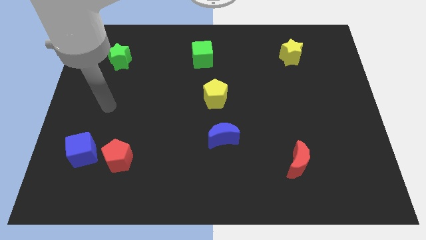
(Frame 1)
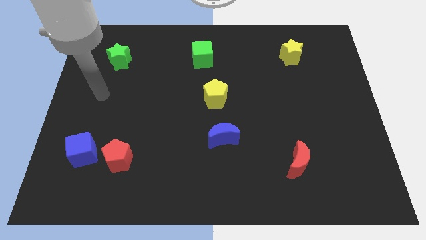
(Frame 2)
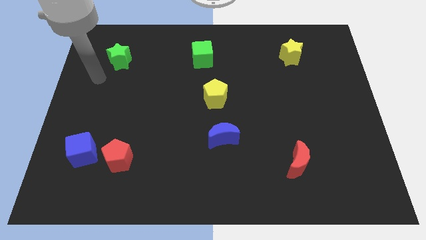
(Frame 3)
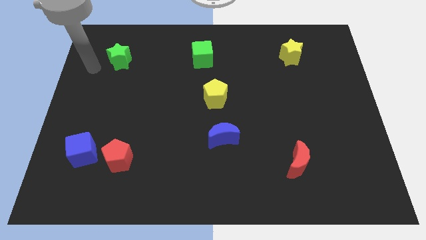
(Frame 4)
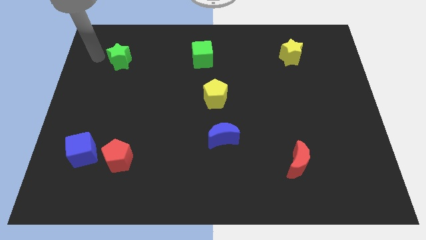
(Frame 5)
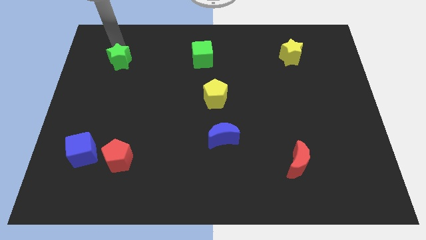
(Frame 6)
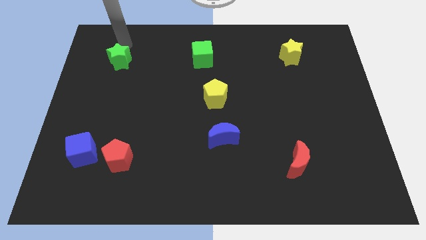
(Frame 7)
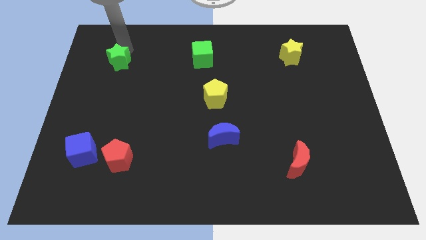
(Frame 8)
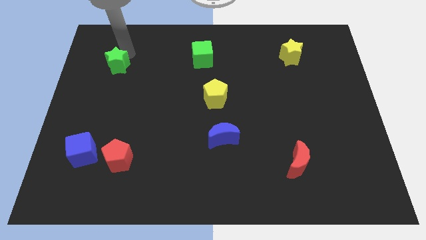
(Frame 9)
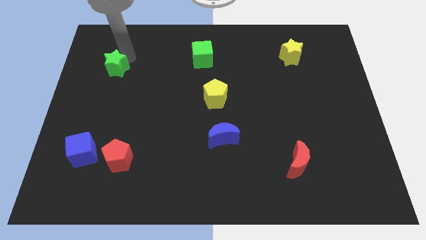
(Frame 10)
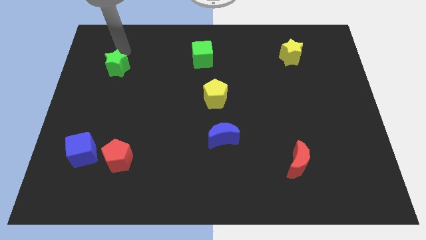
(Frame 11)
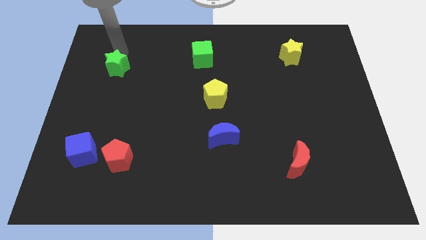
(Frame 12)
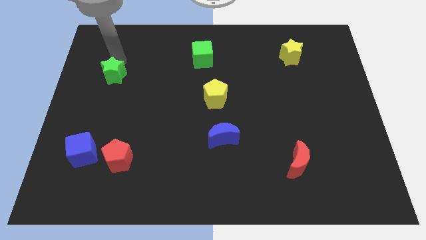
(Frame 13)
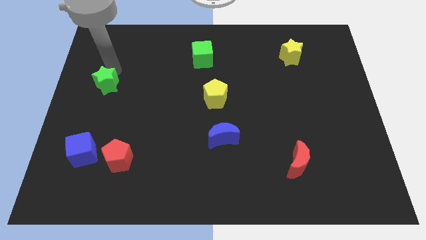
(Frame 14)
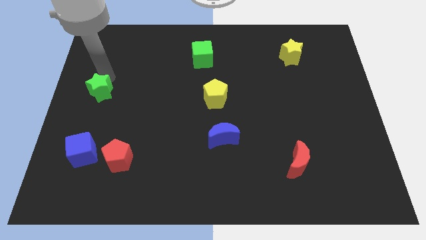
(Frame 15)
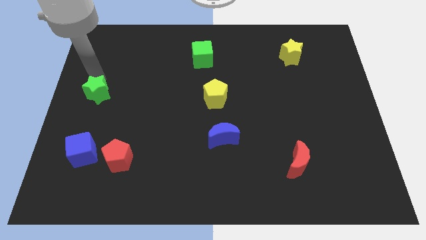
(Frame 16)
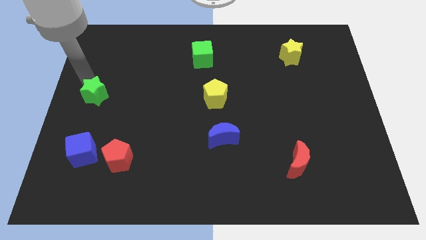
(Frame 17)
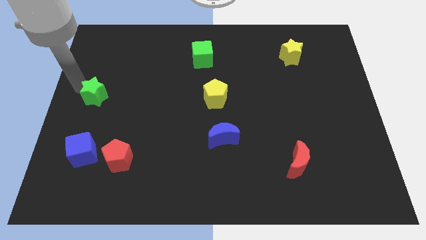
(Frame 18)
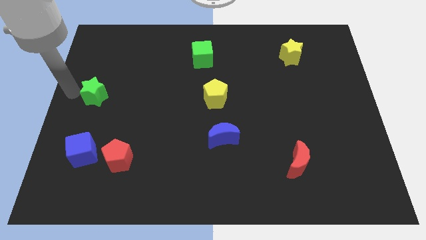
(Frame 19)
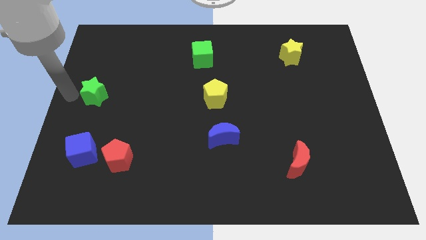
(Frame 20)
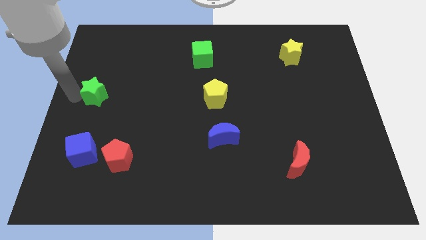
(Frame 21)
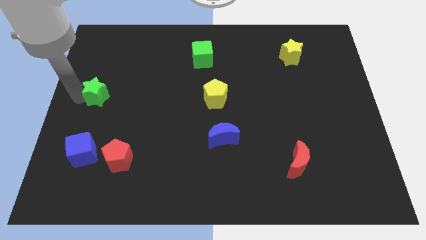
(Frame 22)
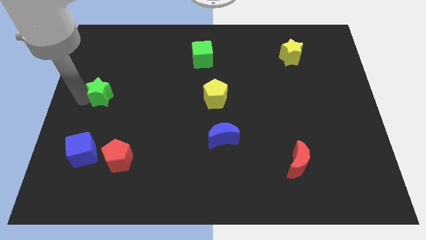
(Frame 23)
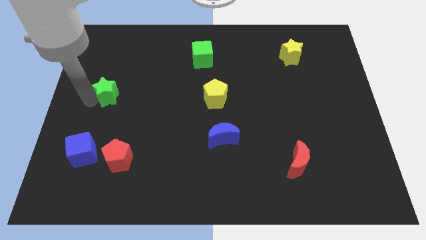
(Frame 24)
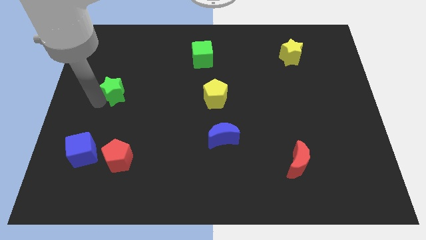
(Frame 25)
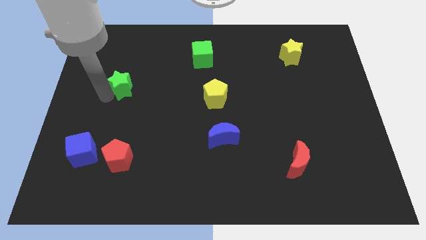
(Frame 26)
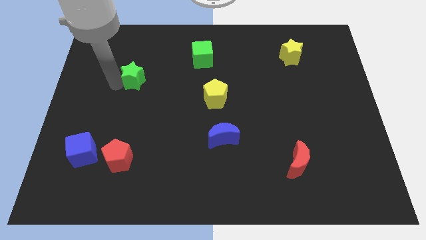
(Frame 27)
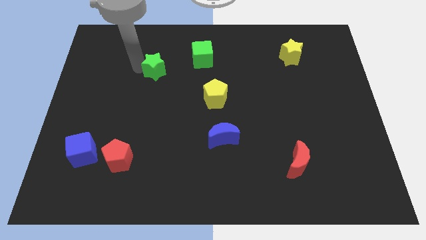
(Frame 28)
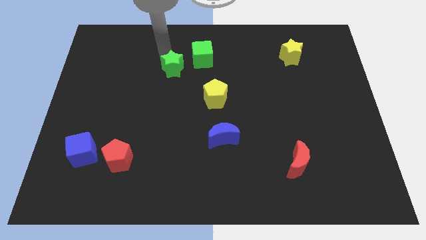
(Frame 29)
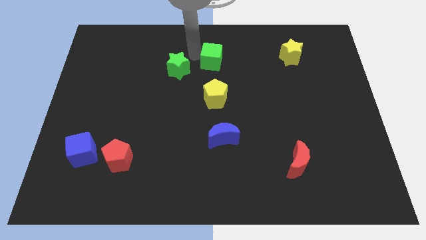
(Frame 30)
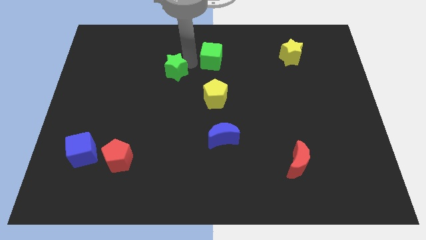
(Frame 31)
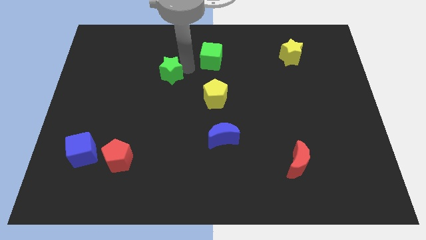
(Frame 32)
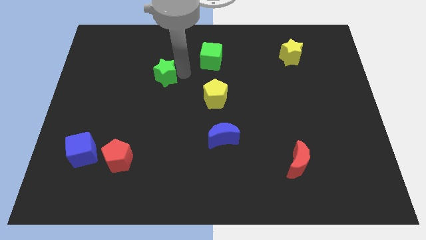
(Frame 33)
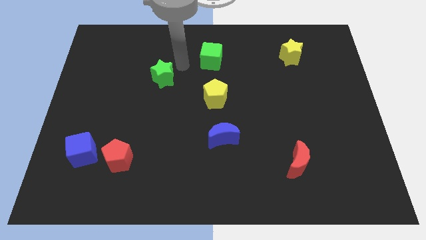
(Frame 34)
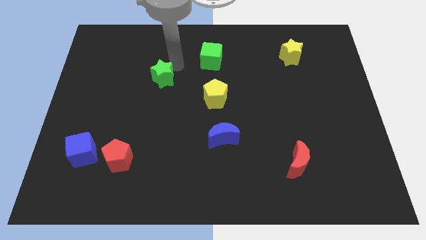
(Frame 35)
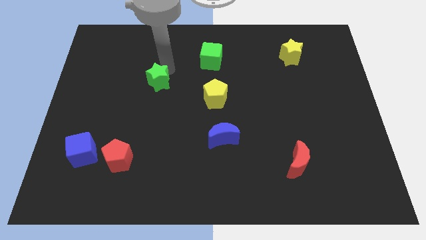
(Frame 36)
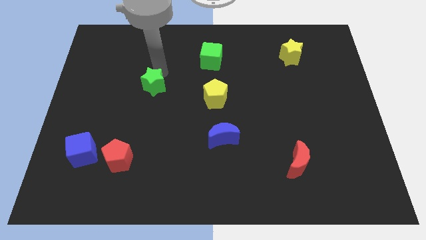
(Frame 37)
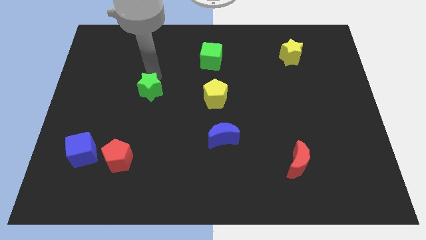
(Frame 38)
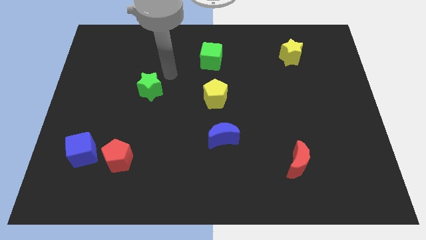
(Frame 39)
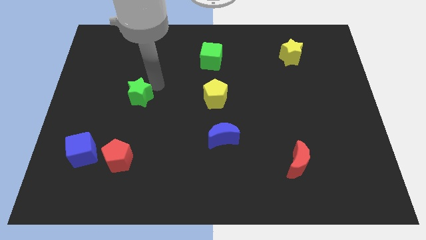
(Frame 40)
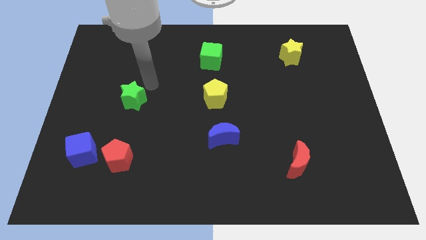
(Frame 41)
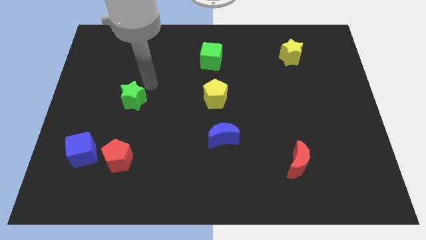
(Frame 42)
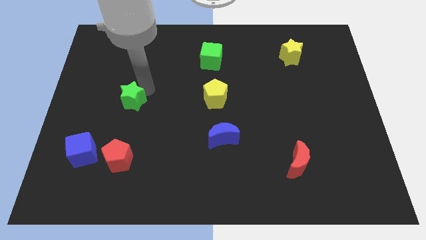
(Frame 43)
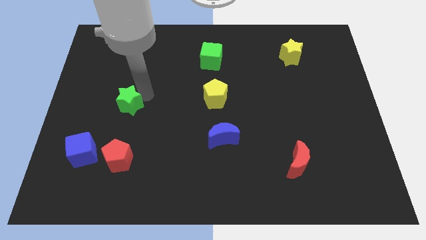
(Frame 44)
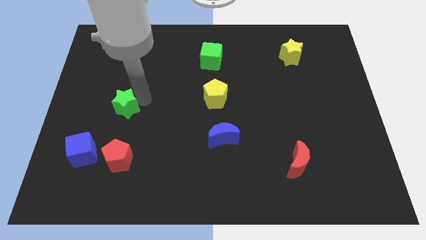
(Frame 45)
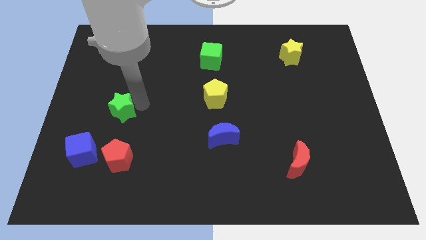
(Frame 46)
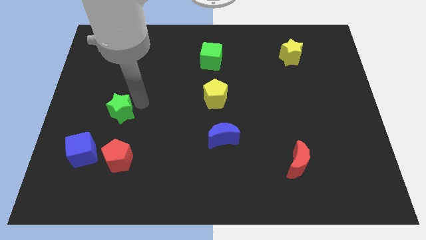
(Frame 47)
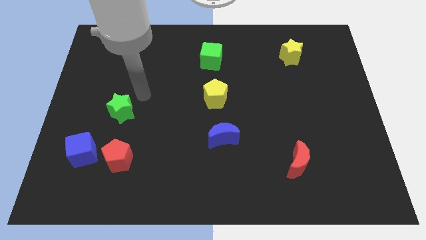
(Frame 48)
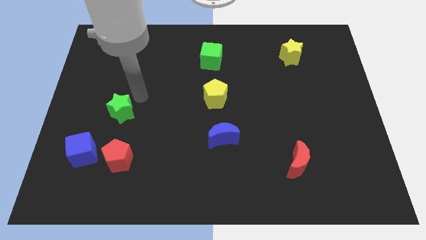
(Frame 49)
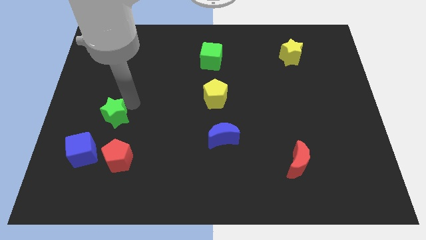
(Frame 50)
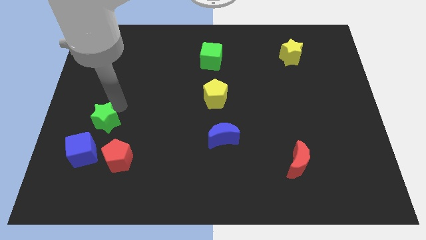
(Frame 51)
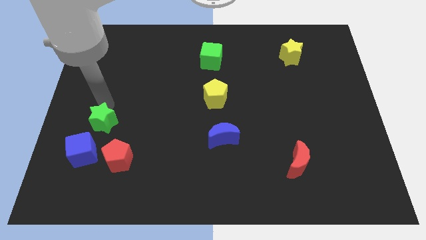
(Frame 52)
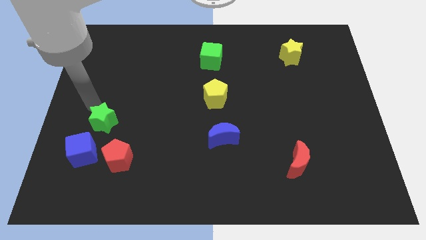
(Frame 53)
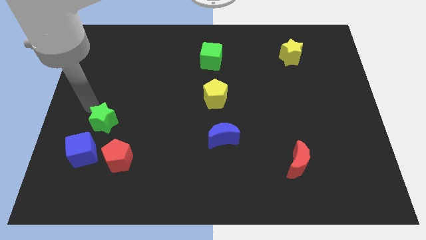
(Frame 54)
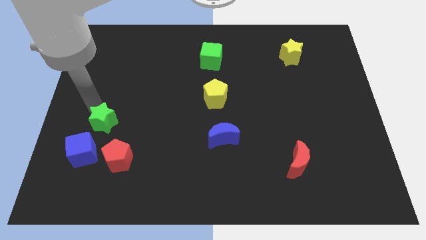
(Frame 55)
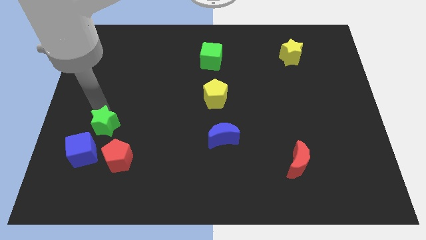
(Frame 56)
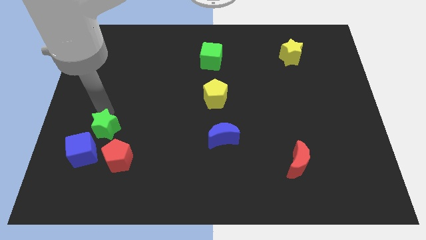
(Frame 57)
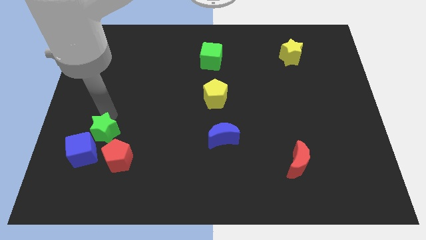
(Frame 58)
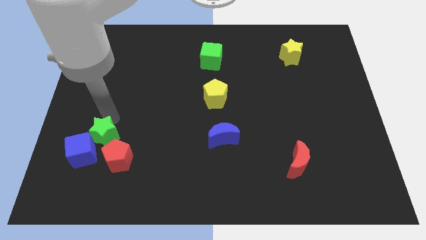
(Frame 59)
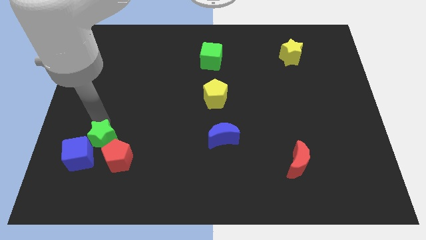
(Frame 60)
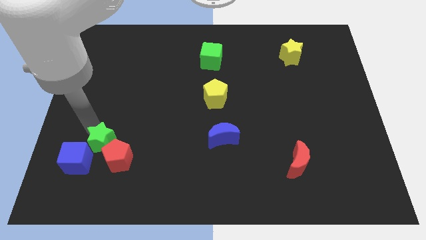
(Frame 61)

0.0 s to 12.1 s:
move the green star close to the red pentagon

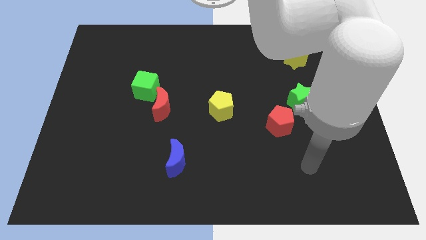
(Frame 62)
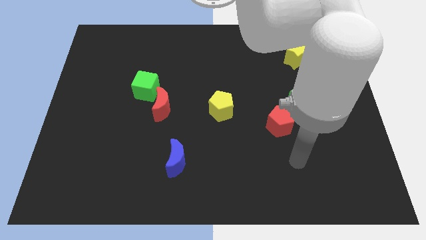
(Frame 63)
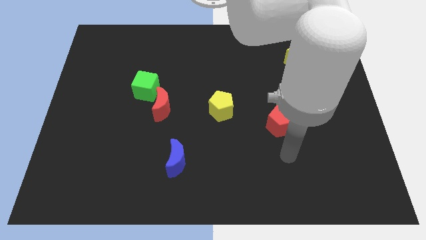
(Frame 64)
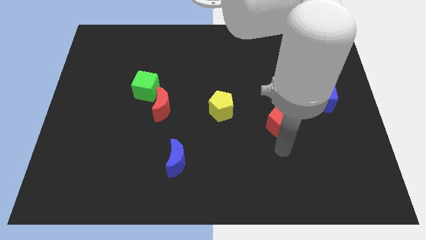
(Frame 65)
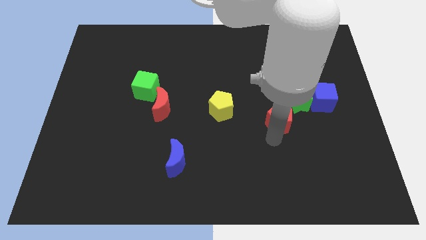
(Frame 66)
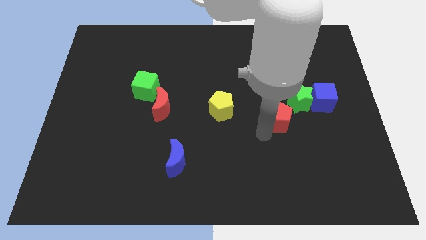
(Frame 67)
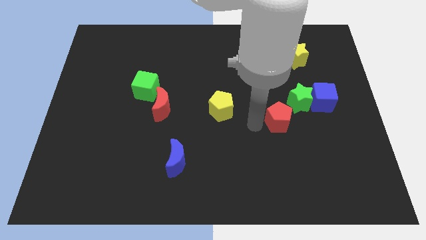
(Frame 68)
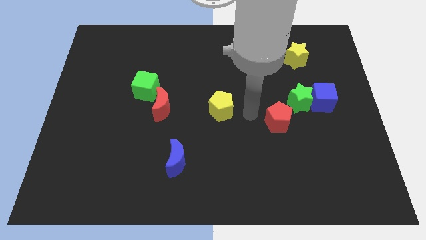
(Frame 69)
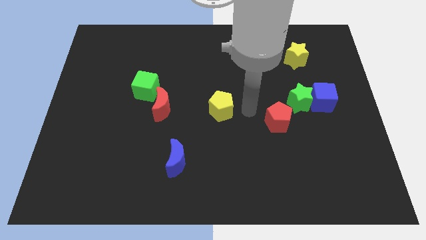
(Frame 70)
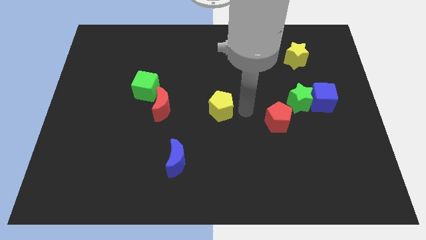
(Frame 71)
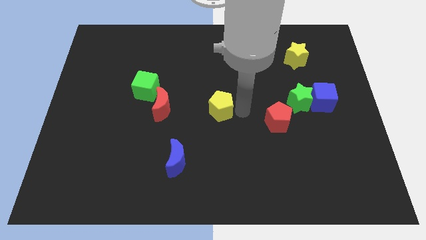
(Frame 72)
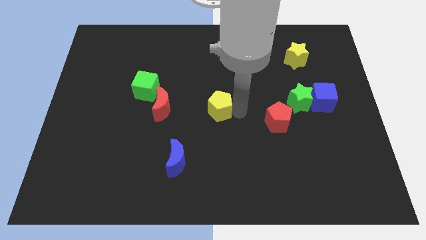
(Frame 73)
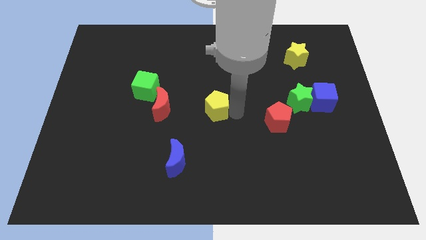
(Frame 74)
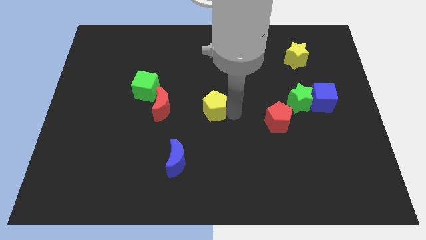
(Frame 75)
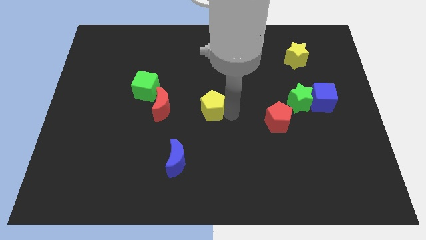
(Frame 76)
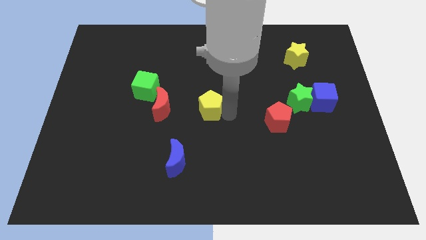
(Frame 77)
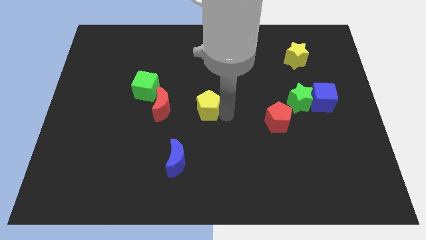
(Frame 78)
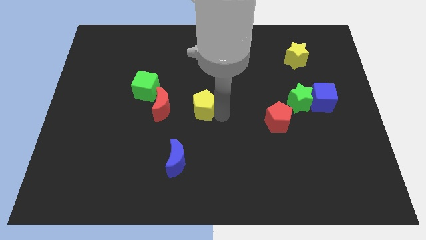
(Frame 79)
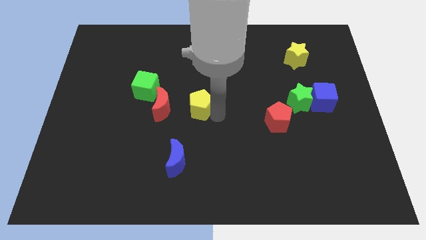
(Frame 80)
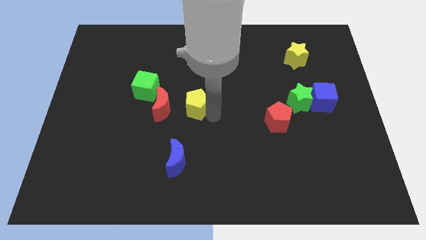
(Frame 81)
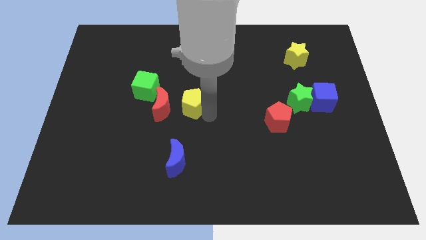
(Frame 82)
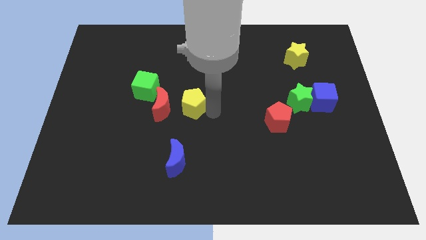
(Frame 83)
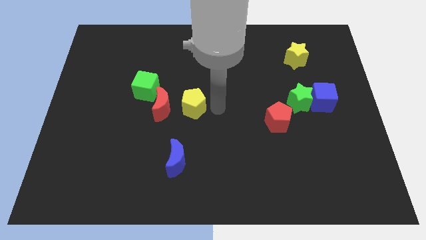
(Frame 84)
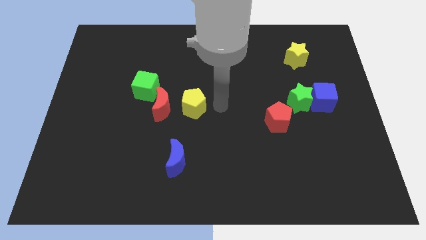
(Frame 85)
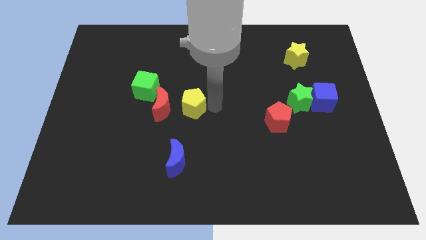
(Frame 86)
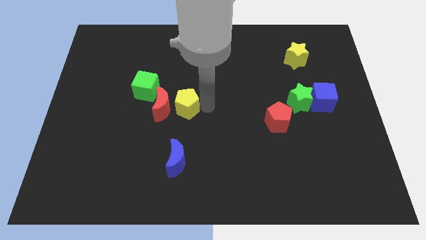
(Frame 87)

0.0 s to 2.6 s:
push the yellow pentagon towards the red moon
